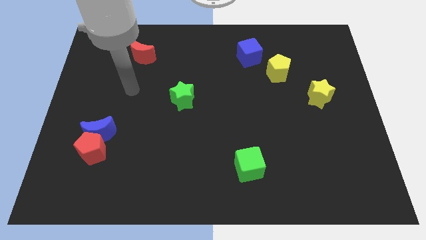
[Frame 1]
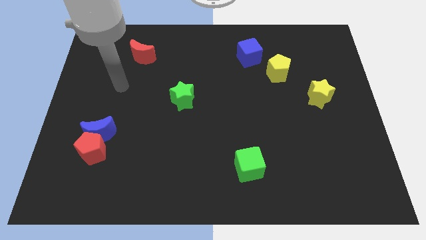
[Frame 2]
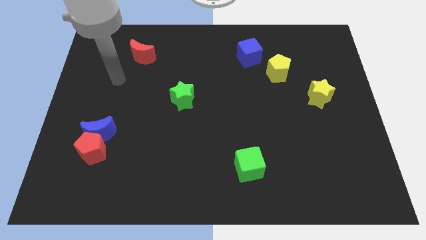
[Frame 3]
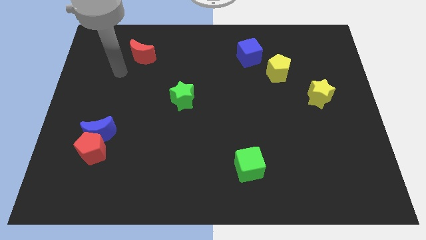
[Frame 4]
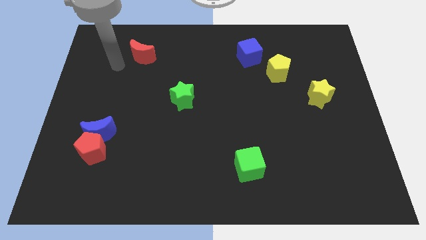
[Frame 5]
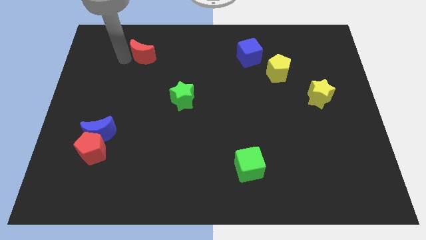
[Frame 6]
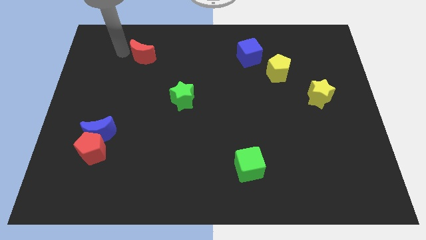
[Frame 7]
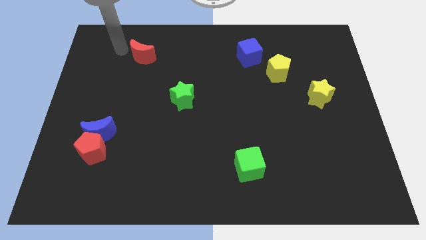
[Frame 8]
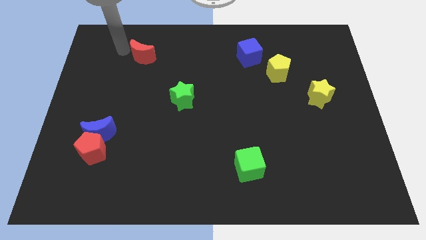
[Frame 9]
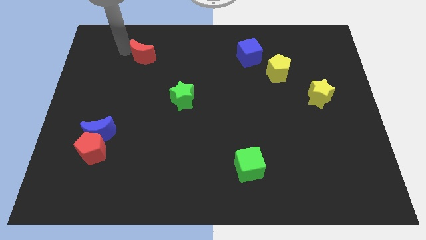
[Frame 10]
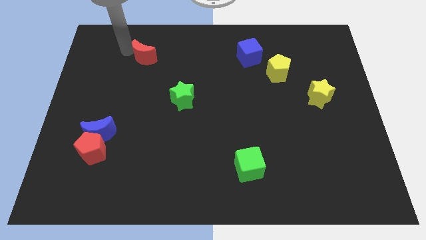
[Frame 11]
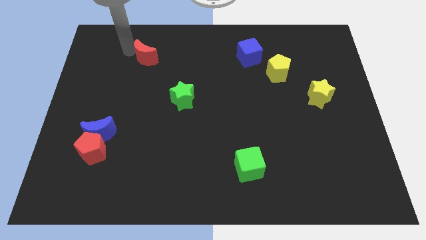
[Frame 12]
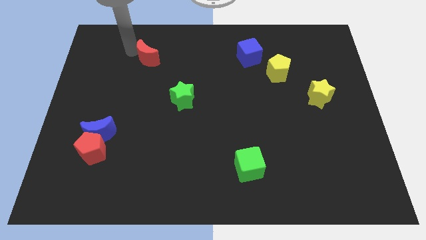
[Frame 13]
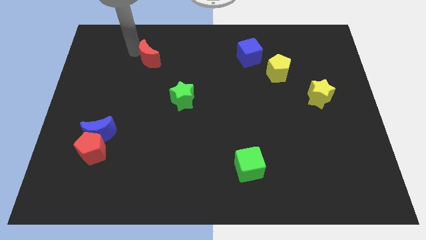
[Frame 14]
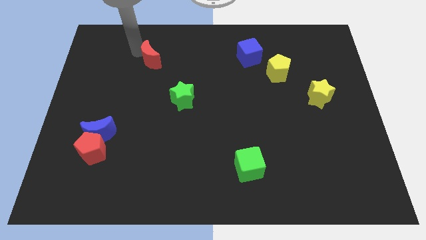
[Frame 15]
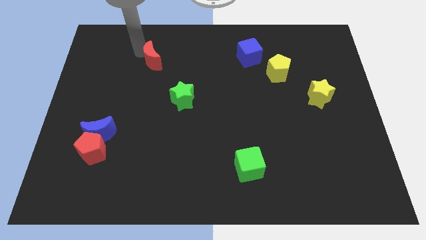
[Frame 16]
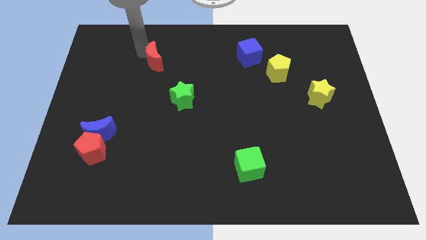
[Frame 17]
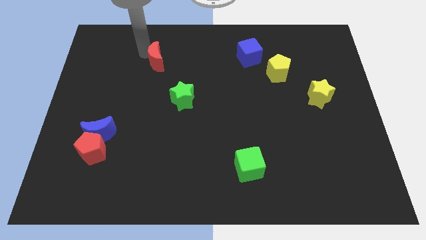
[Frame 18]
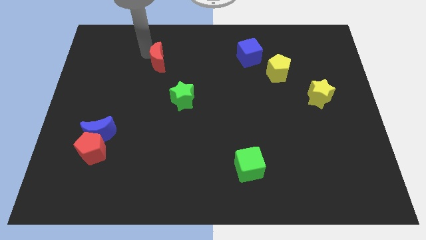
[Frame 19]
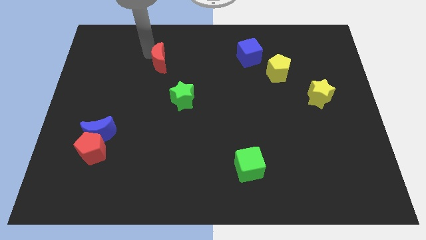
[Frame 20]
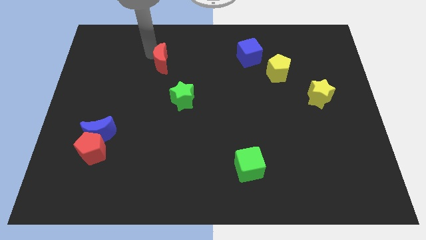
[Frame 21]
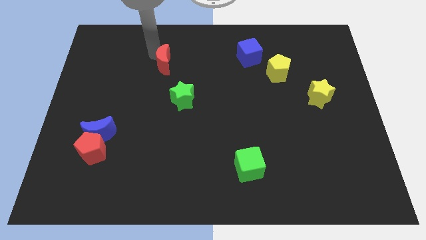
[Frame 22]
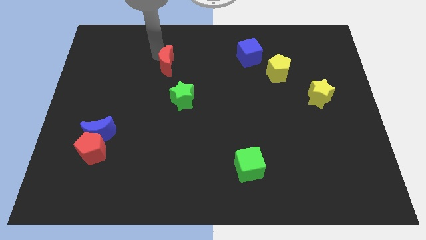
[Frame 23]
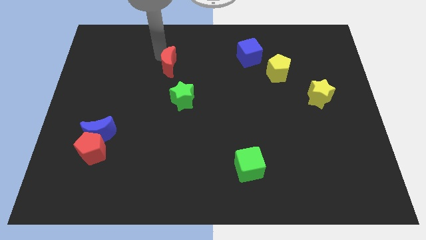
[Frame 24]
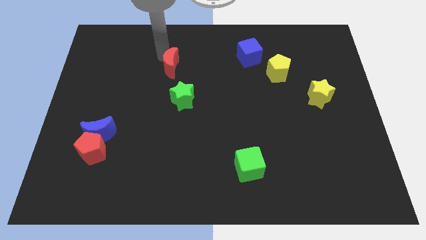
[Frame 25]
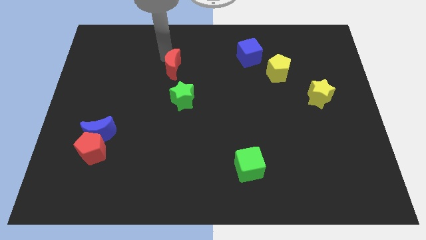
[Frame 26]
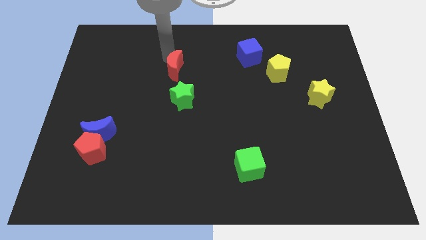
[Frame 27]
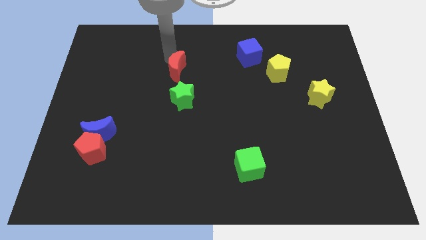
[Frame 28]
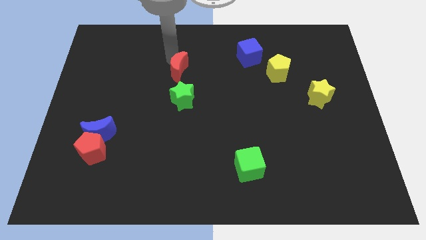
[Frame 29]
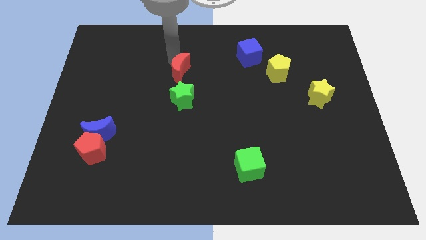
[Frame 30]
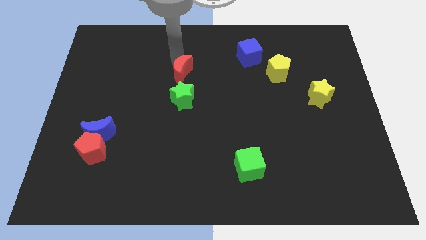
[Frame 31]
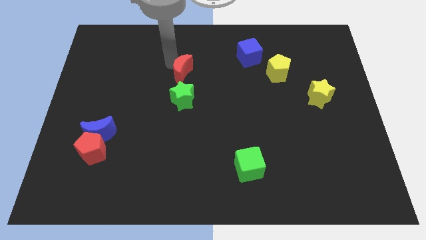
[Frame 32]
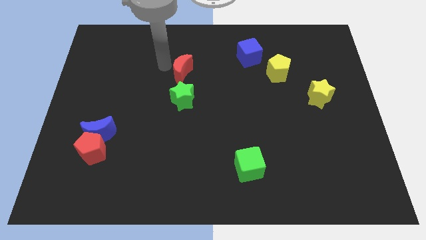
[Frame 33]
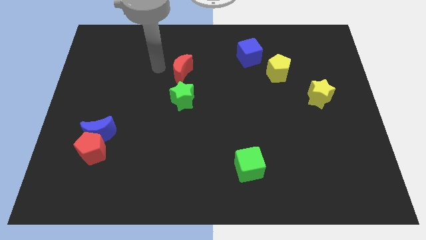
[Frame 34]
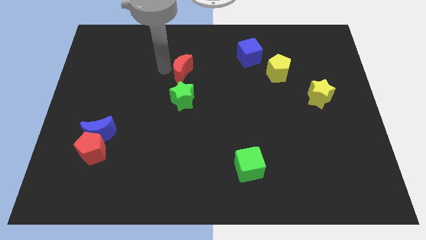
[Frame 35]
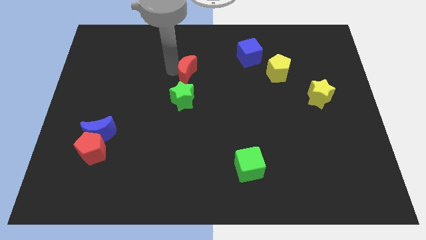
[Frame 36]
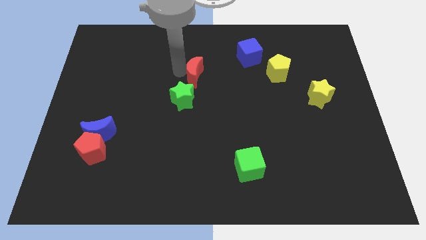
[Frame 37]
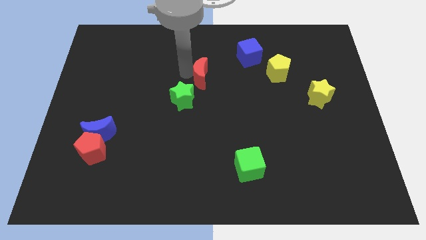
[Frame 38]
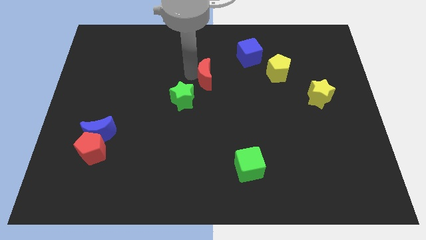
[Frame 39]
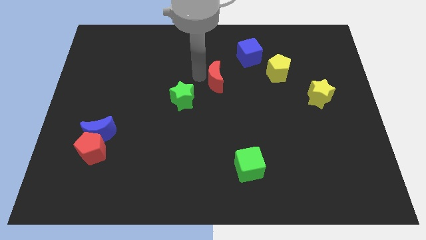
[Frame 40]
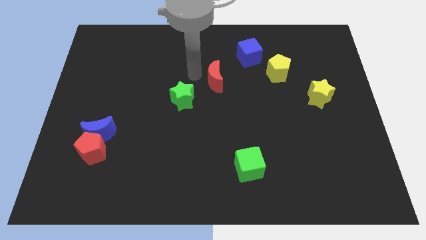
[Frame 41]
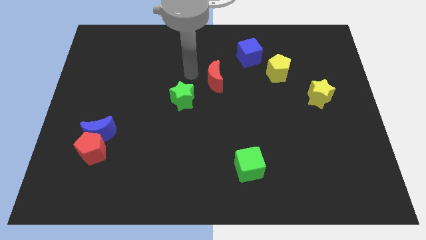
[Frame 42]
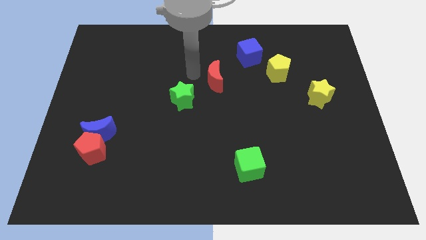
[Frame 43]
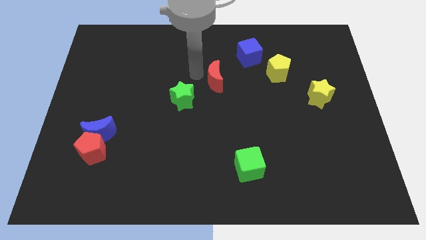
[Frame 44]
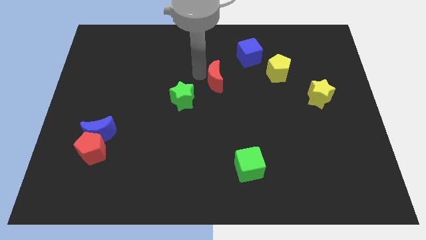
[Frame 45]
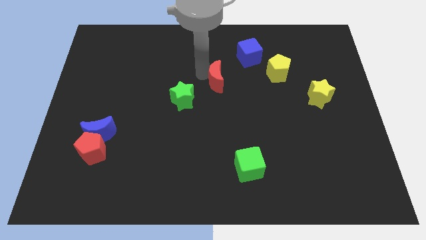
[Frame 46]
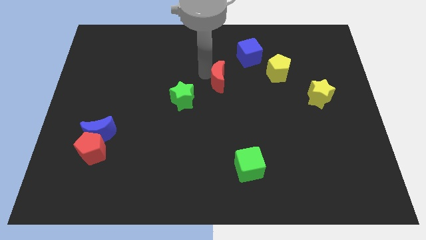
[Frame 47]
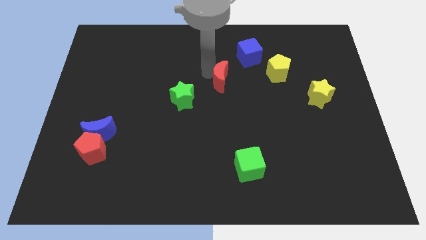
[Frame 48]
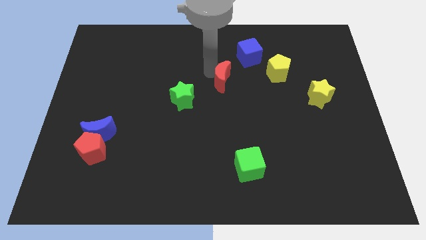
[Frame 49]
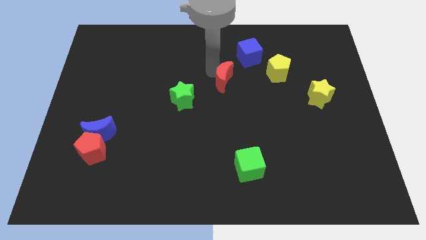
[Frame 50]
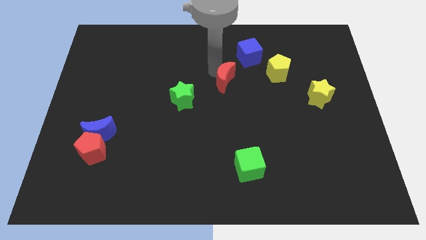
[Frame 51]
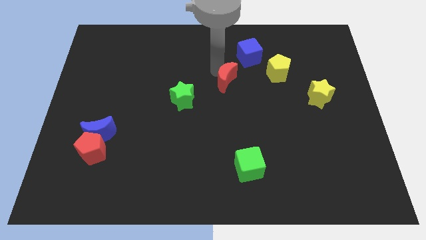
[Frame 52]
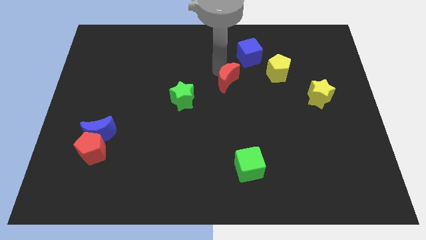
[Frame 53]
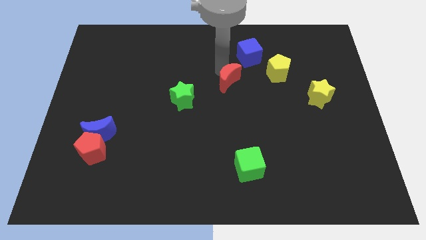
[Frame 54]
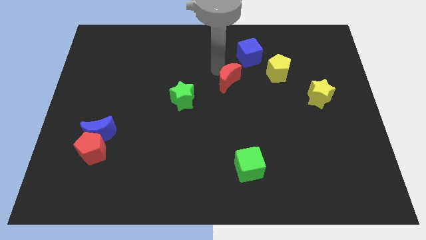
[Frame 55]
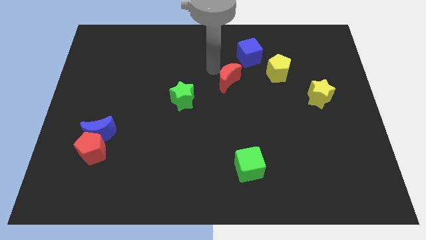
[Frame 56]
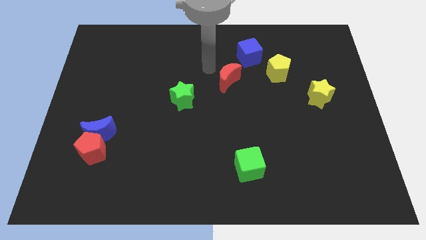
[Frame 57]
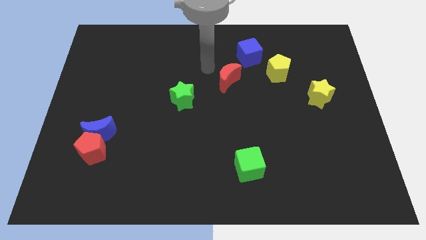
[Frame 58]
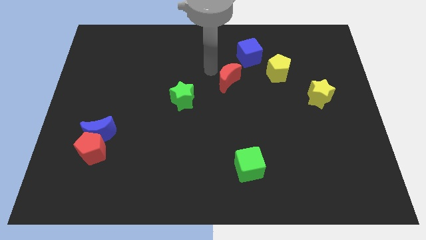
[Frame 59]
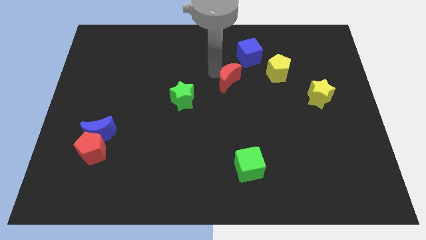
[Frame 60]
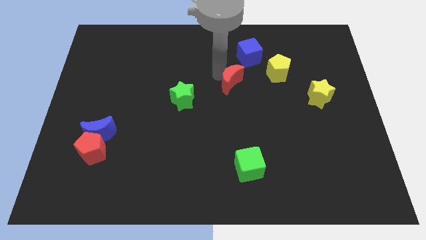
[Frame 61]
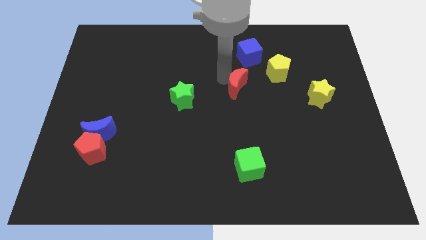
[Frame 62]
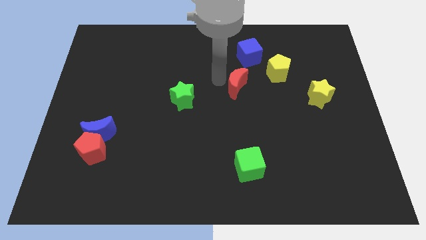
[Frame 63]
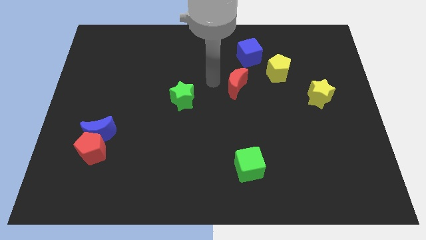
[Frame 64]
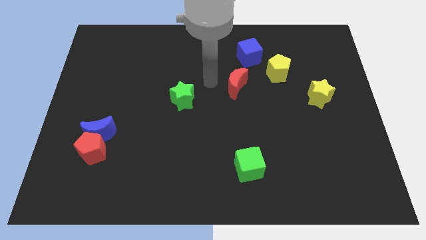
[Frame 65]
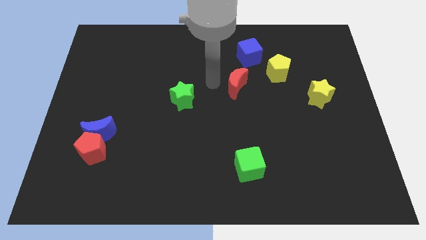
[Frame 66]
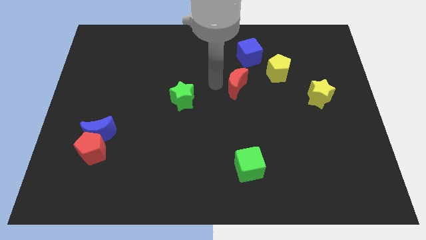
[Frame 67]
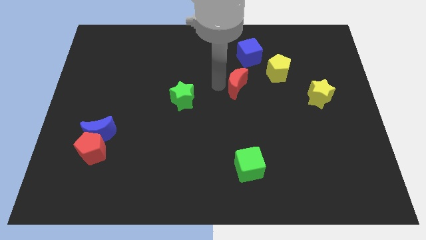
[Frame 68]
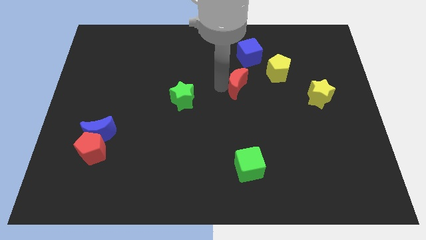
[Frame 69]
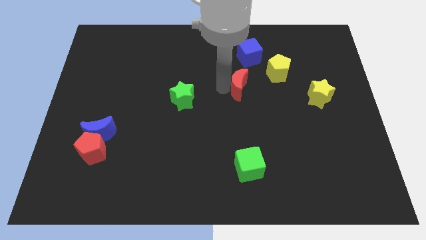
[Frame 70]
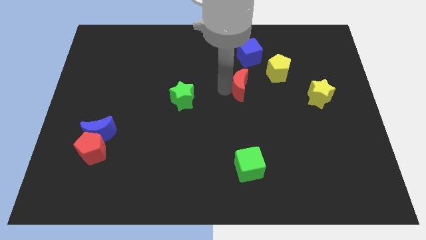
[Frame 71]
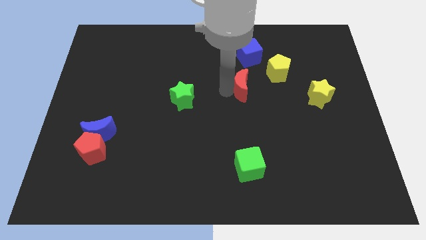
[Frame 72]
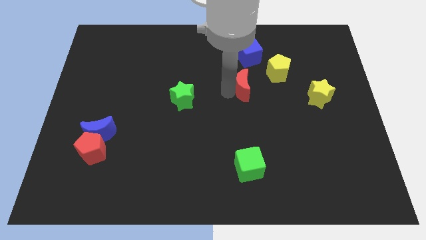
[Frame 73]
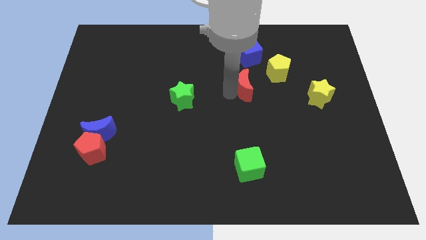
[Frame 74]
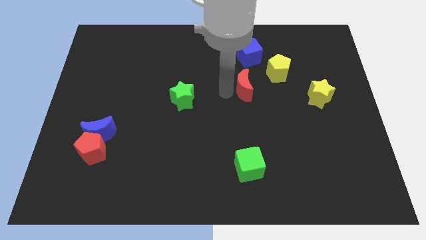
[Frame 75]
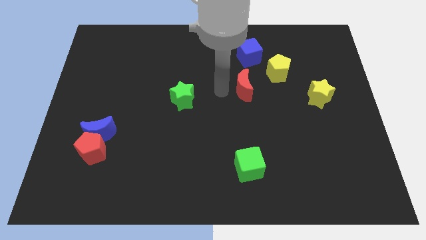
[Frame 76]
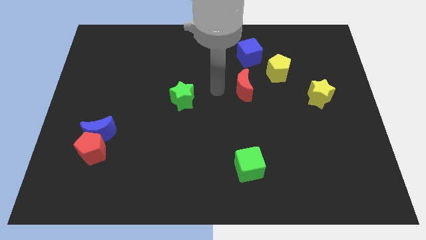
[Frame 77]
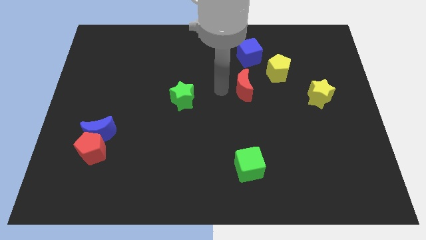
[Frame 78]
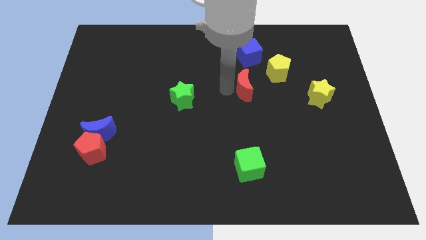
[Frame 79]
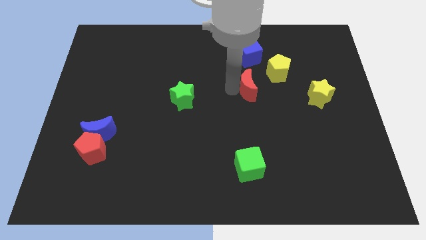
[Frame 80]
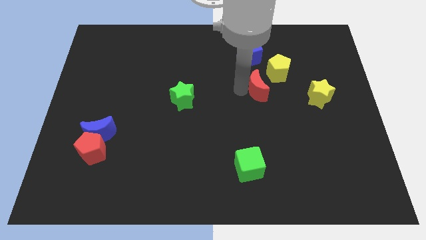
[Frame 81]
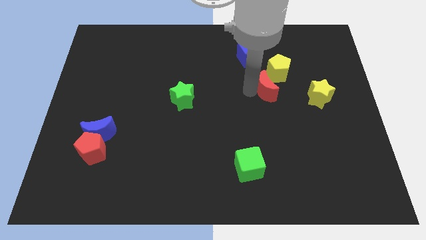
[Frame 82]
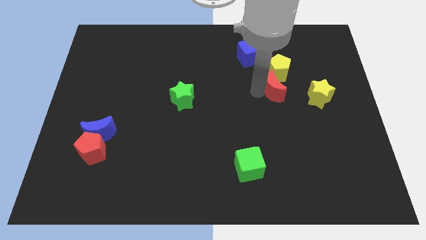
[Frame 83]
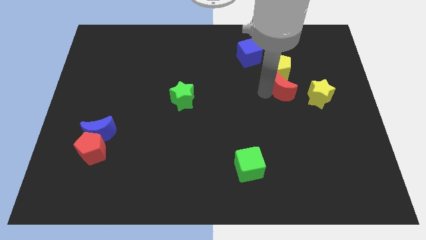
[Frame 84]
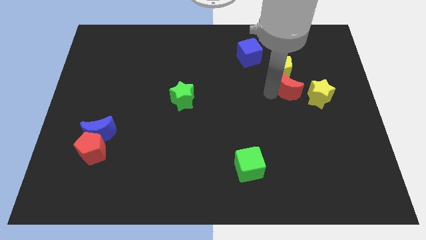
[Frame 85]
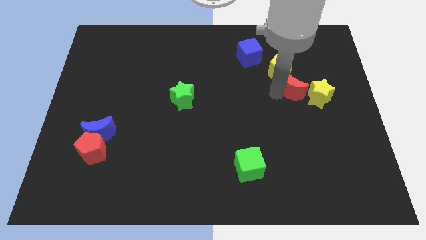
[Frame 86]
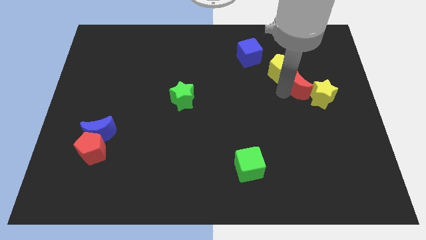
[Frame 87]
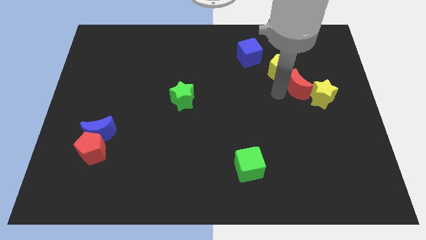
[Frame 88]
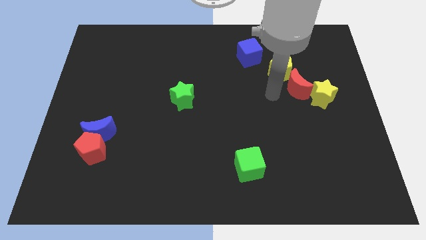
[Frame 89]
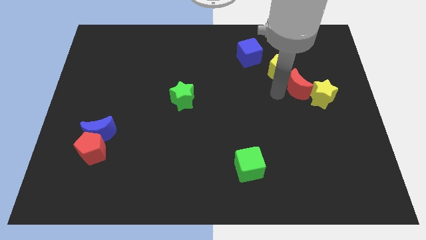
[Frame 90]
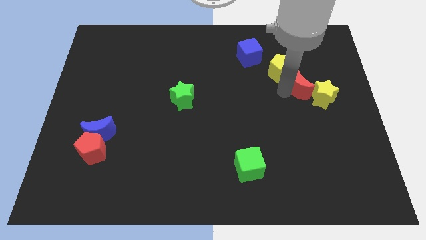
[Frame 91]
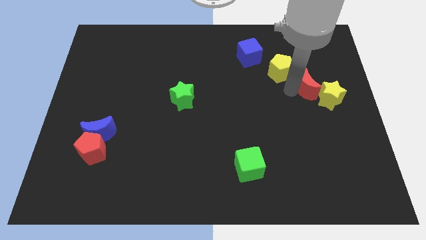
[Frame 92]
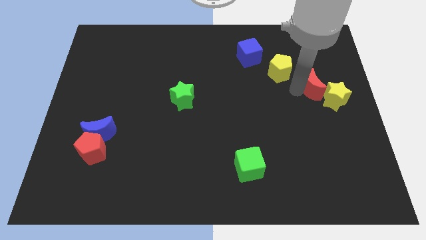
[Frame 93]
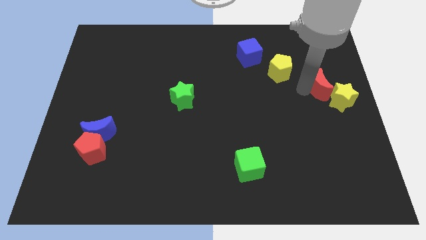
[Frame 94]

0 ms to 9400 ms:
slide the red moon to the center right
